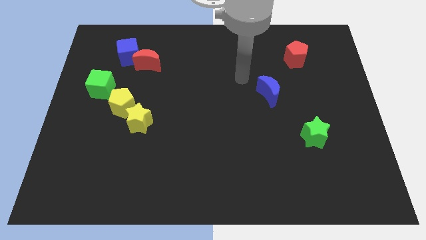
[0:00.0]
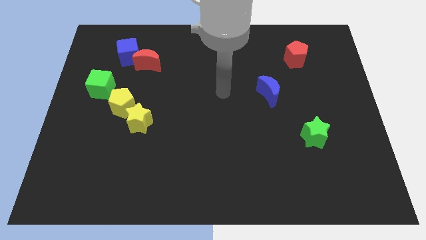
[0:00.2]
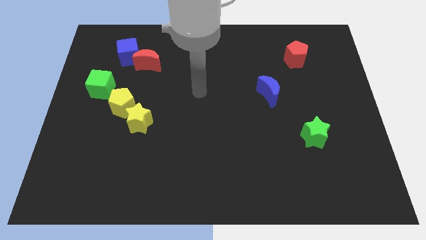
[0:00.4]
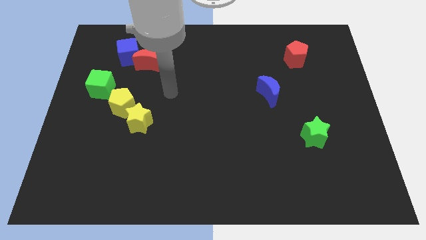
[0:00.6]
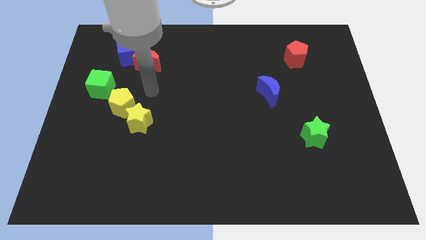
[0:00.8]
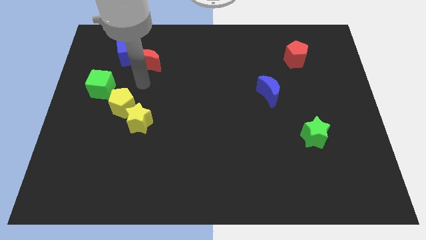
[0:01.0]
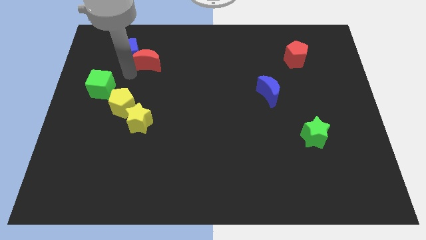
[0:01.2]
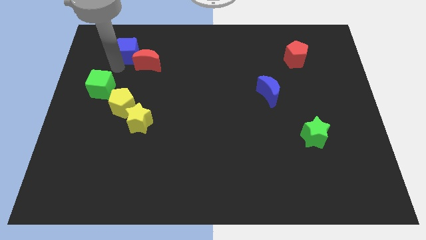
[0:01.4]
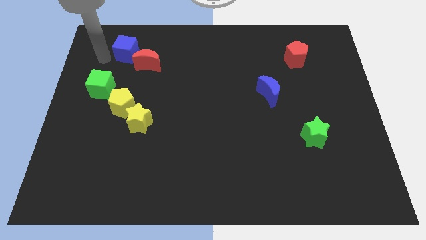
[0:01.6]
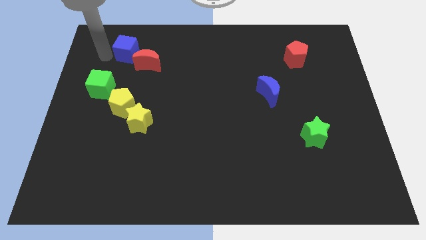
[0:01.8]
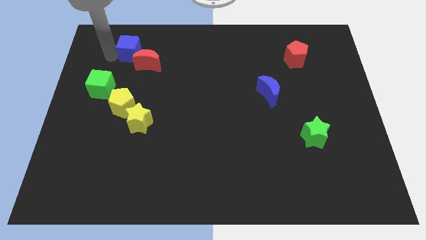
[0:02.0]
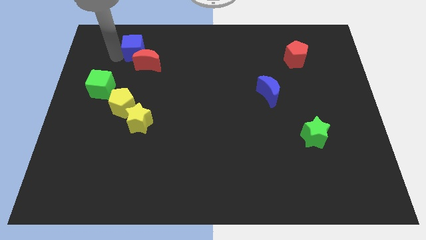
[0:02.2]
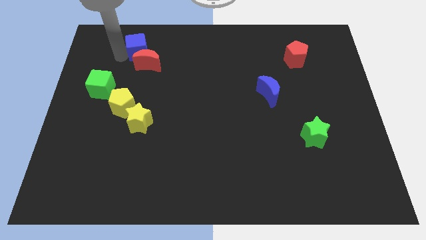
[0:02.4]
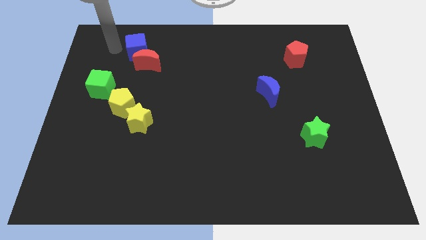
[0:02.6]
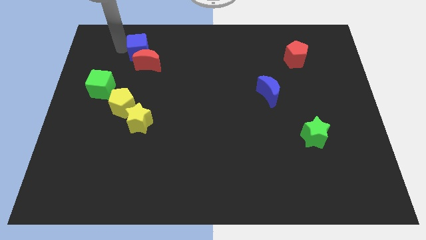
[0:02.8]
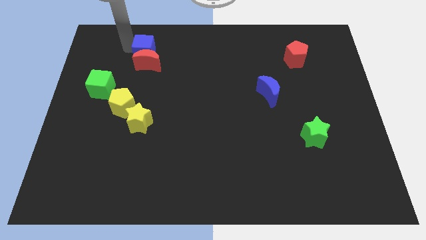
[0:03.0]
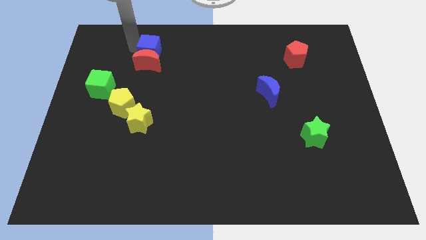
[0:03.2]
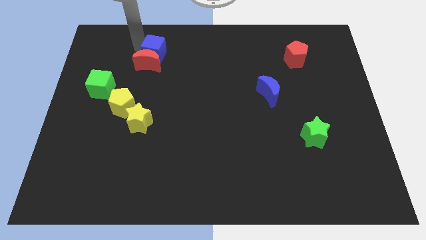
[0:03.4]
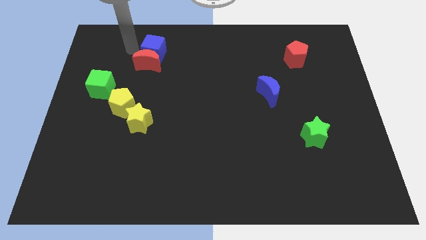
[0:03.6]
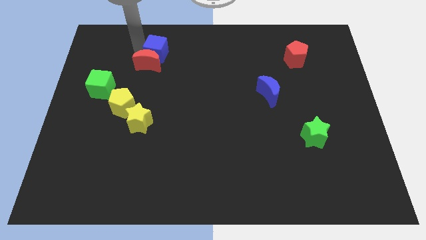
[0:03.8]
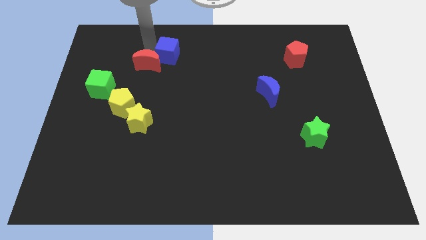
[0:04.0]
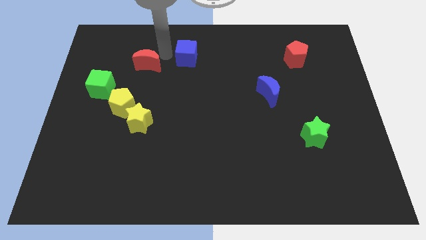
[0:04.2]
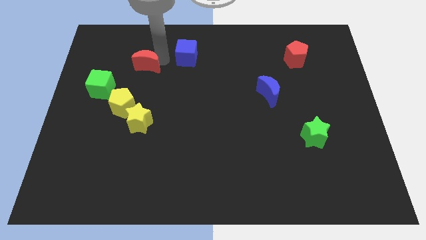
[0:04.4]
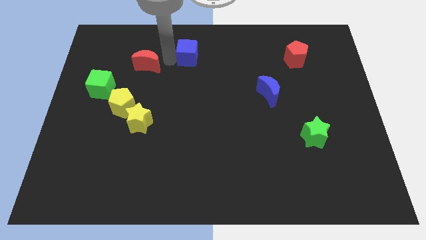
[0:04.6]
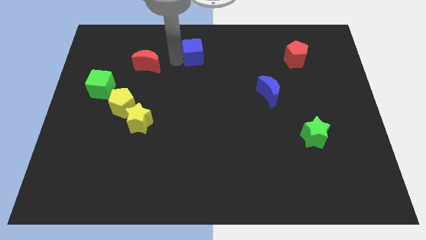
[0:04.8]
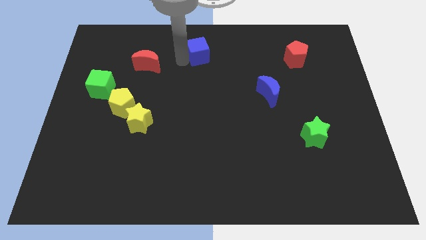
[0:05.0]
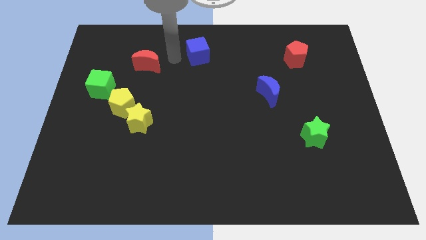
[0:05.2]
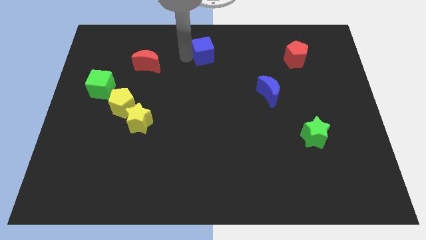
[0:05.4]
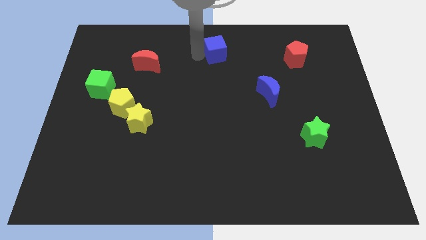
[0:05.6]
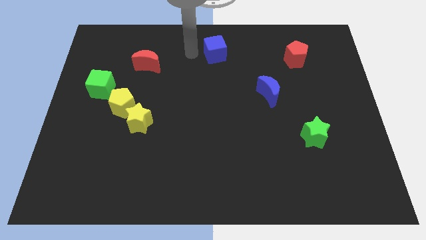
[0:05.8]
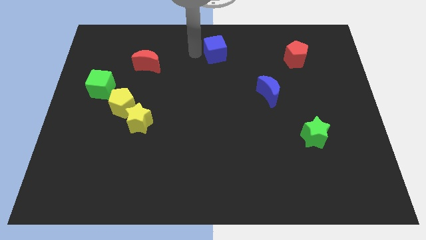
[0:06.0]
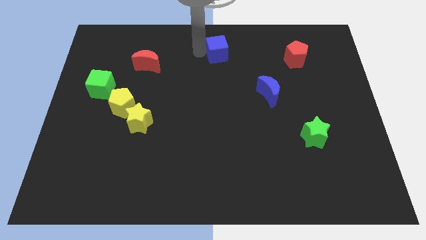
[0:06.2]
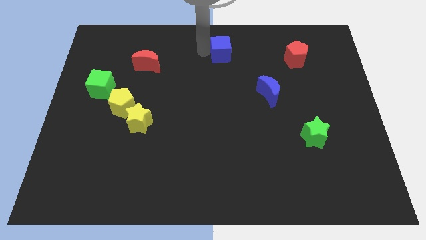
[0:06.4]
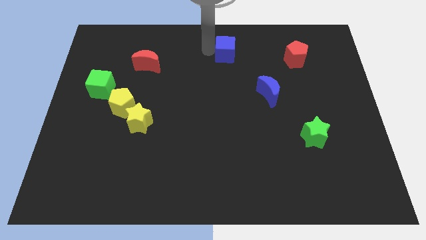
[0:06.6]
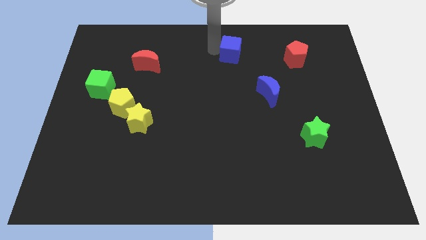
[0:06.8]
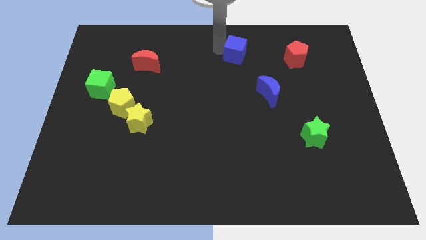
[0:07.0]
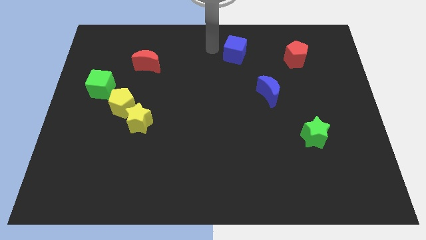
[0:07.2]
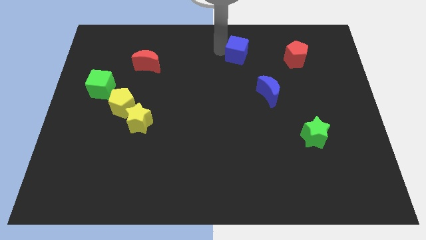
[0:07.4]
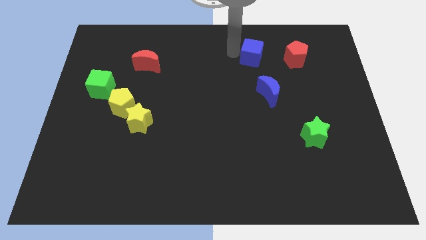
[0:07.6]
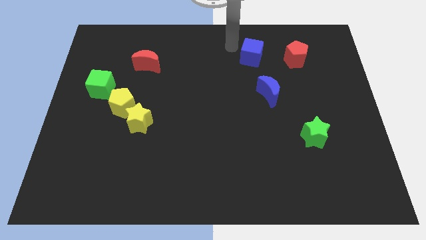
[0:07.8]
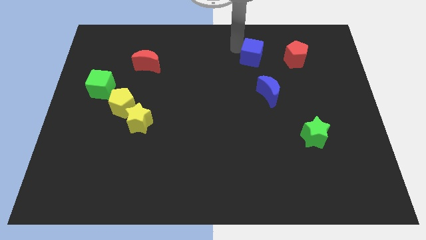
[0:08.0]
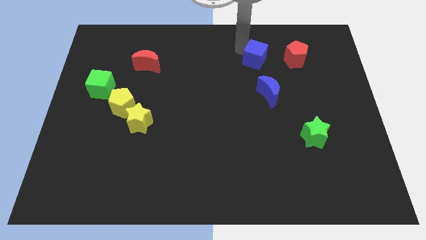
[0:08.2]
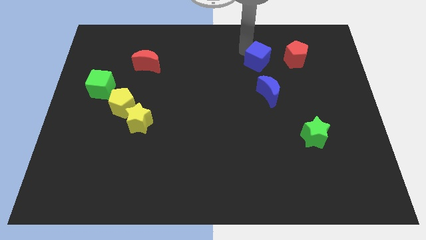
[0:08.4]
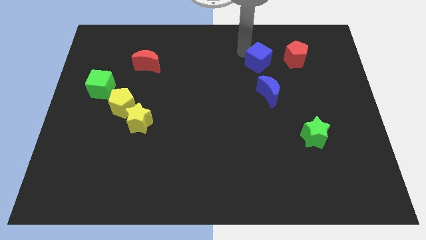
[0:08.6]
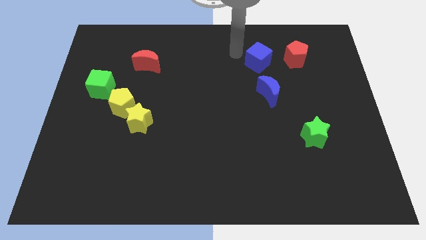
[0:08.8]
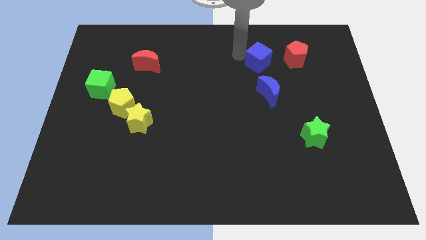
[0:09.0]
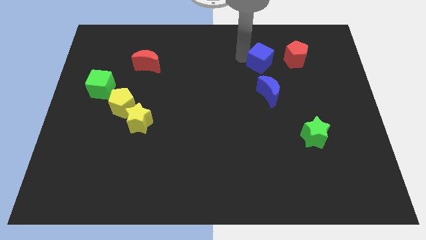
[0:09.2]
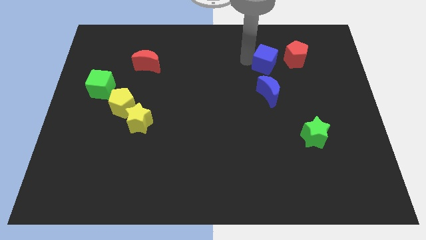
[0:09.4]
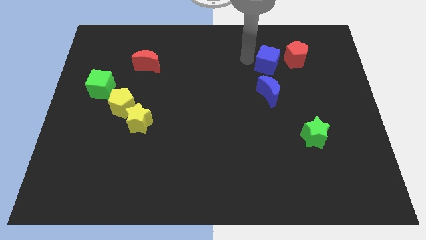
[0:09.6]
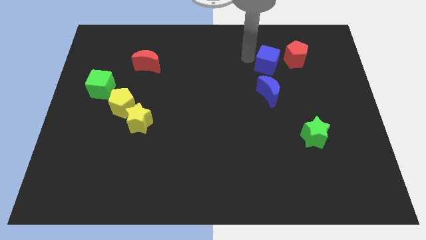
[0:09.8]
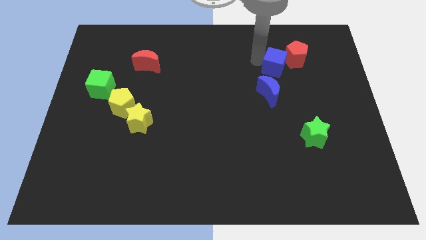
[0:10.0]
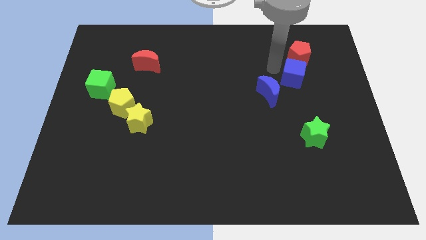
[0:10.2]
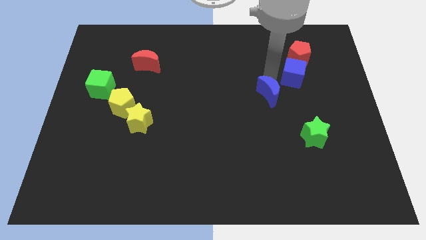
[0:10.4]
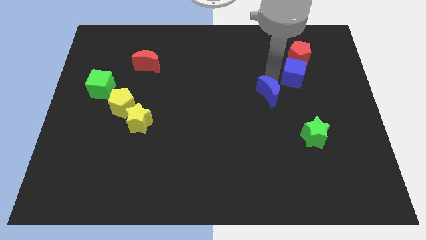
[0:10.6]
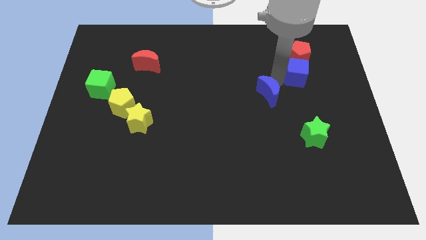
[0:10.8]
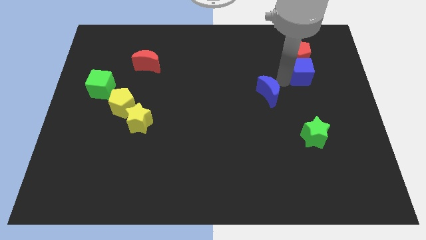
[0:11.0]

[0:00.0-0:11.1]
push the blue cube to the bottom right of the red pentagon

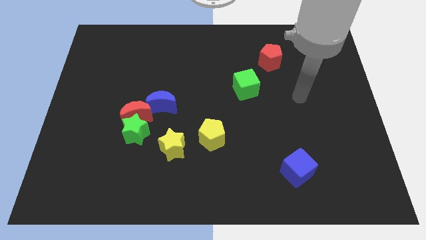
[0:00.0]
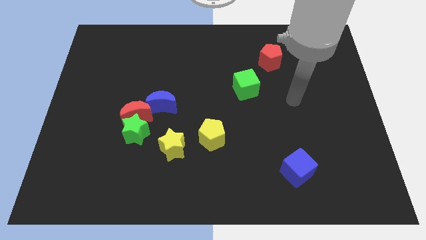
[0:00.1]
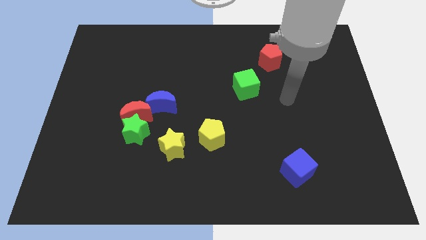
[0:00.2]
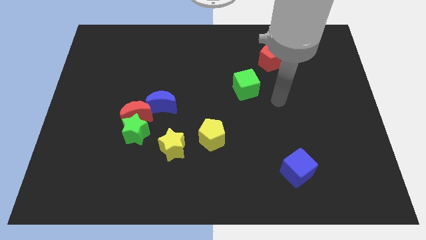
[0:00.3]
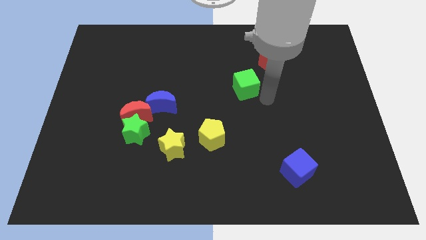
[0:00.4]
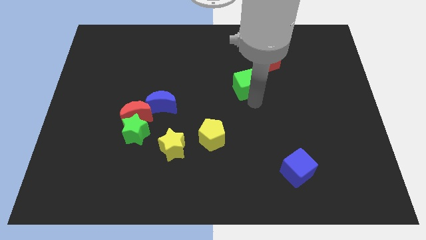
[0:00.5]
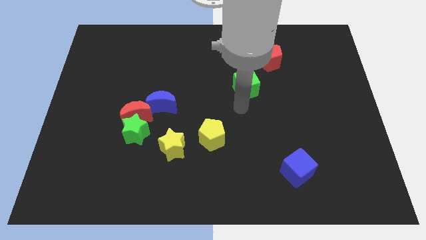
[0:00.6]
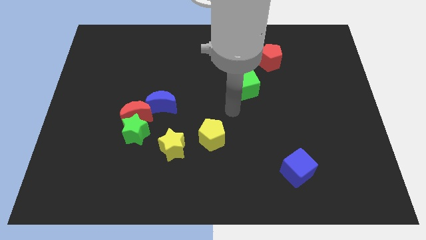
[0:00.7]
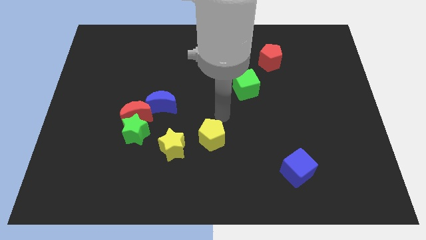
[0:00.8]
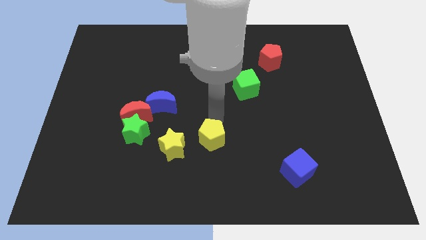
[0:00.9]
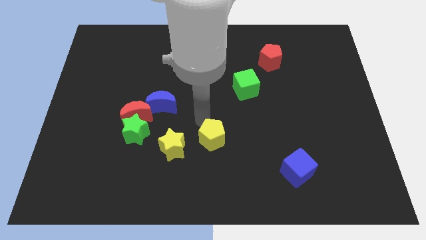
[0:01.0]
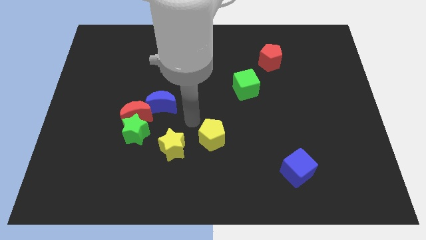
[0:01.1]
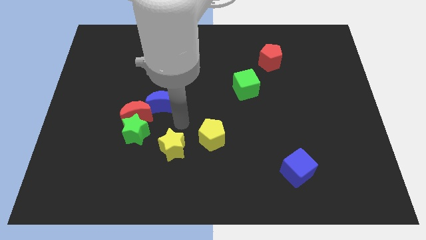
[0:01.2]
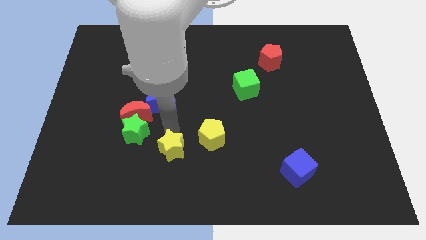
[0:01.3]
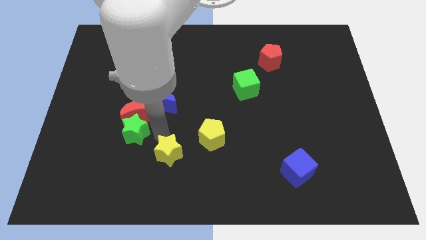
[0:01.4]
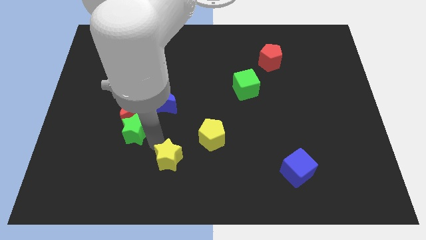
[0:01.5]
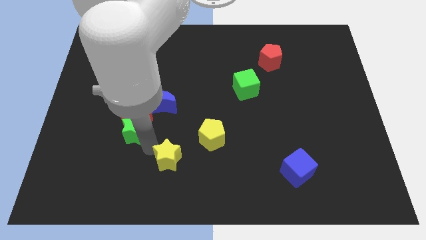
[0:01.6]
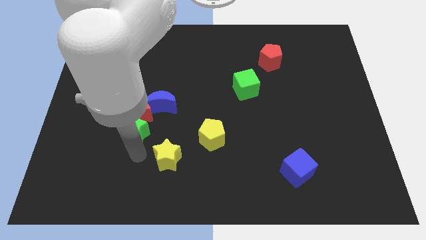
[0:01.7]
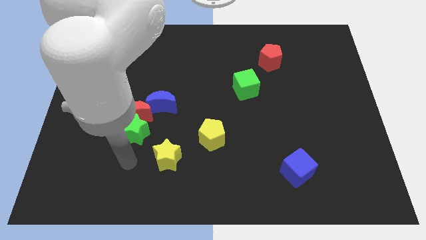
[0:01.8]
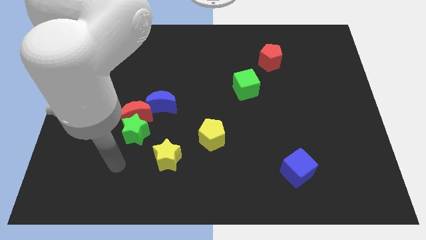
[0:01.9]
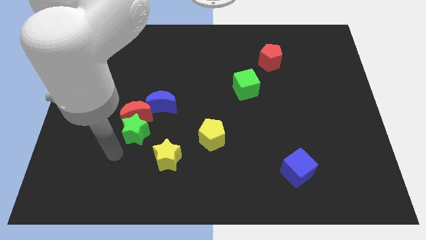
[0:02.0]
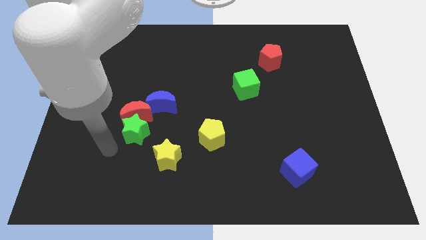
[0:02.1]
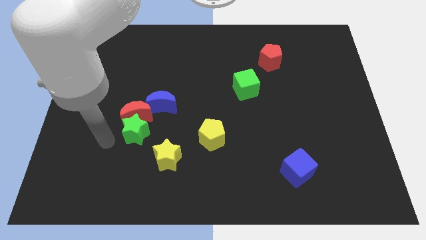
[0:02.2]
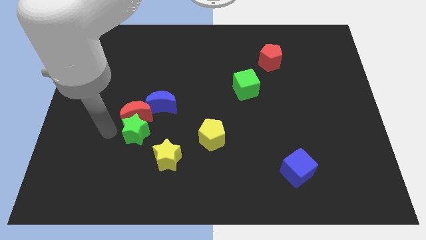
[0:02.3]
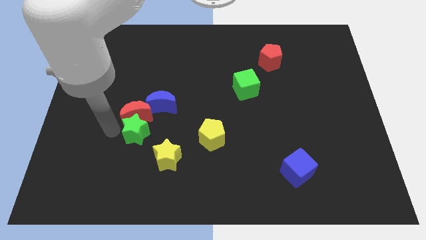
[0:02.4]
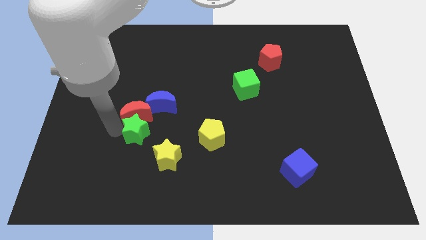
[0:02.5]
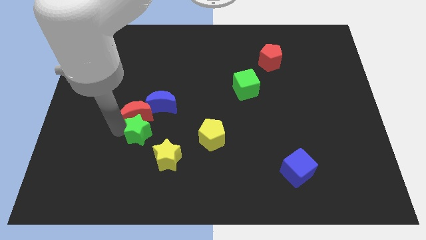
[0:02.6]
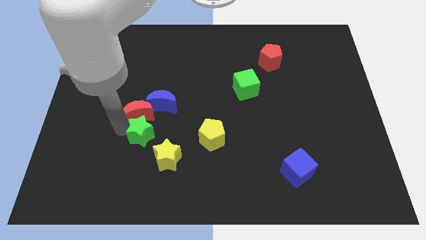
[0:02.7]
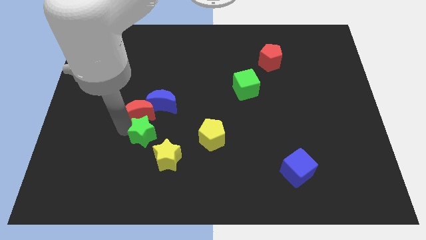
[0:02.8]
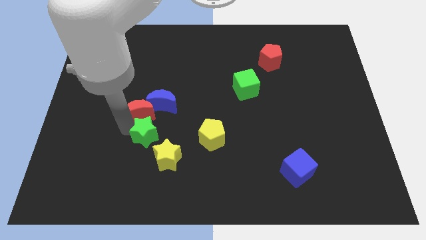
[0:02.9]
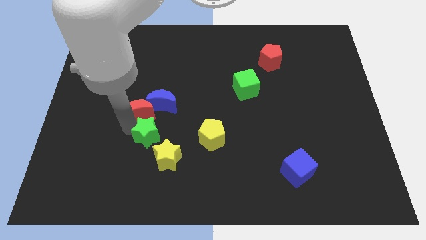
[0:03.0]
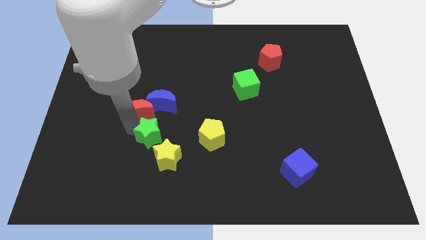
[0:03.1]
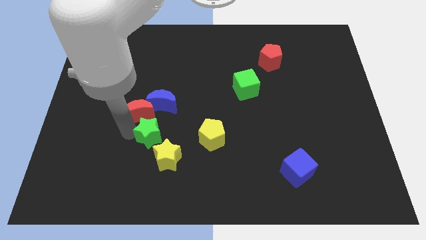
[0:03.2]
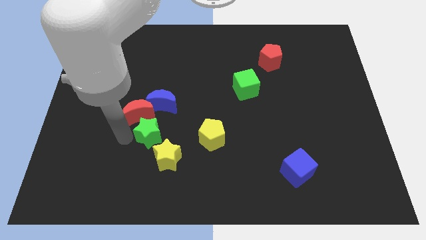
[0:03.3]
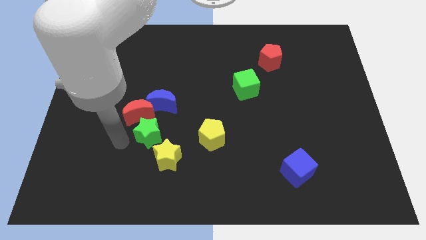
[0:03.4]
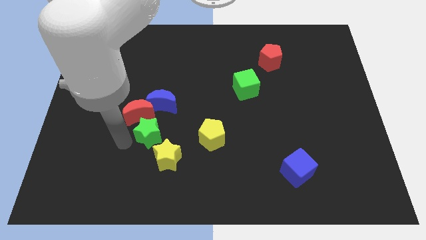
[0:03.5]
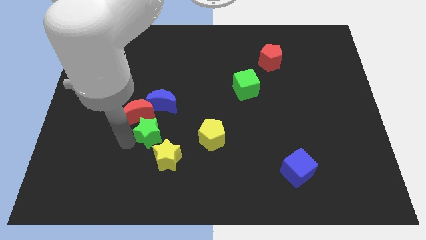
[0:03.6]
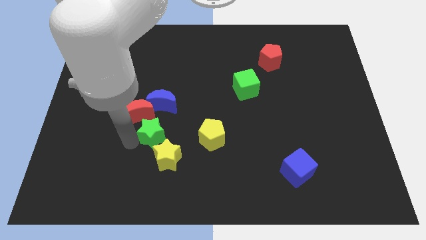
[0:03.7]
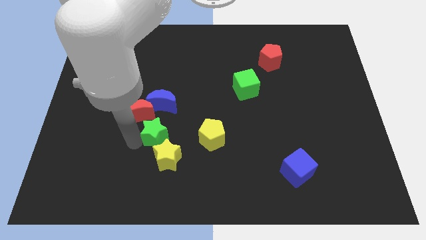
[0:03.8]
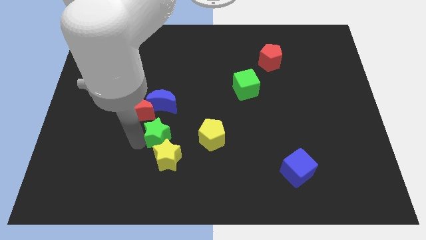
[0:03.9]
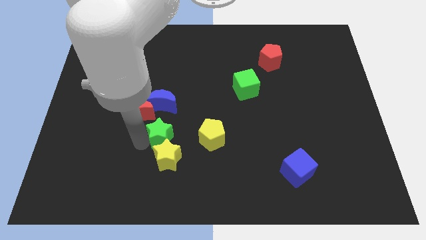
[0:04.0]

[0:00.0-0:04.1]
put the green star to the top right of the yellow star
